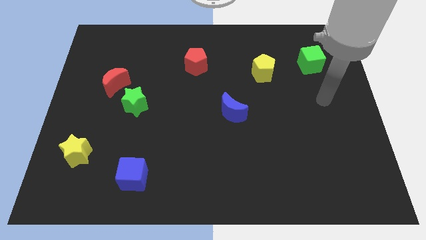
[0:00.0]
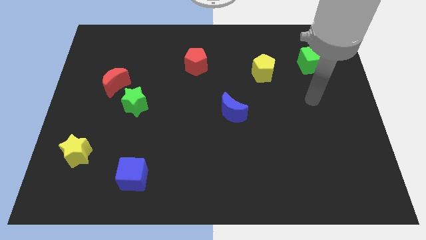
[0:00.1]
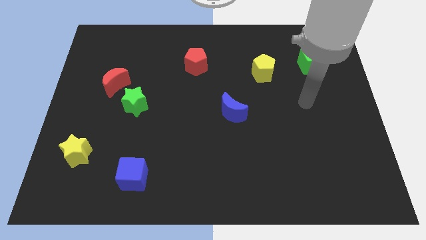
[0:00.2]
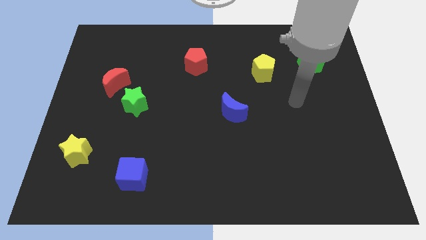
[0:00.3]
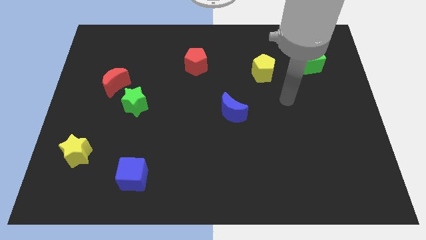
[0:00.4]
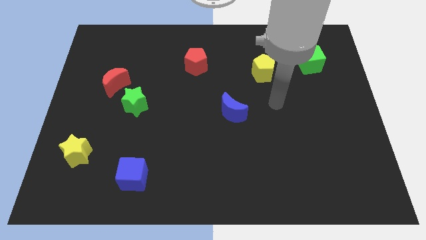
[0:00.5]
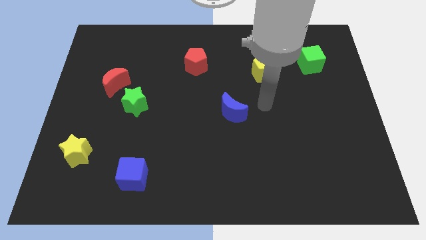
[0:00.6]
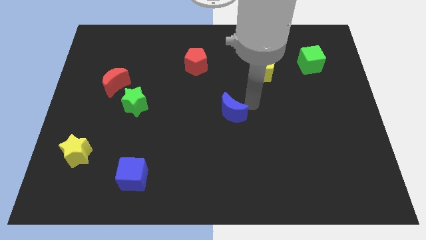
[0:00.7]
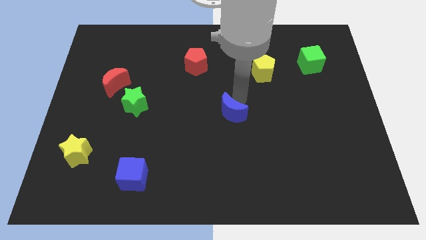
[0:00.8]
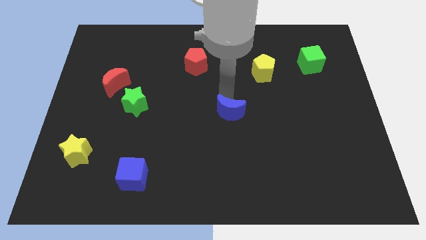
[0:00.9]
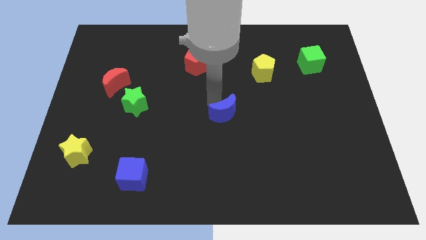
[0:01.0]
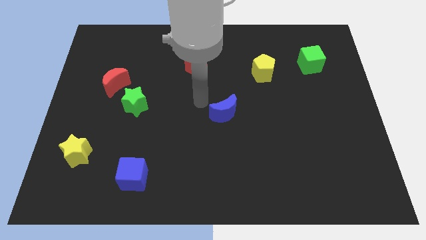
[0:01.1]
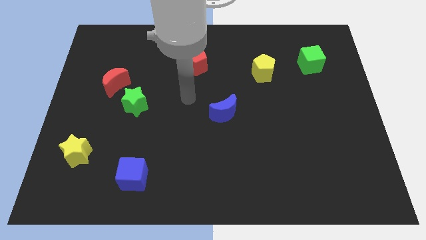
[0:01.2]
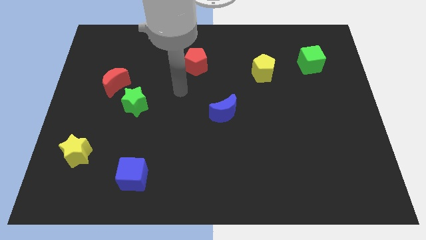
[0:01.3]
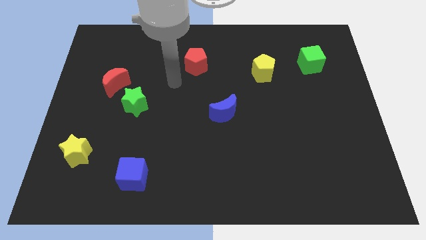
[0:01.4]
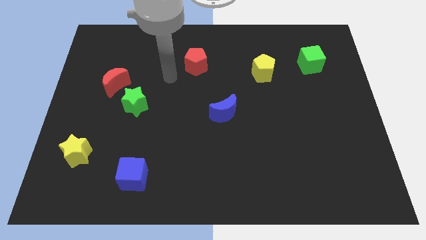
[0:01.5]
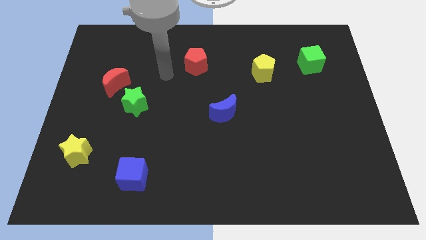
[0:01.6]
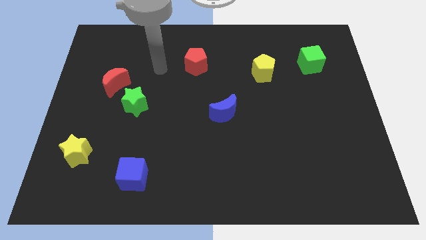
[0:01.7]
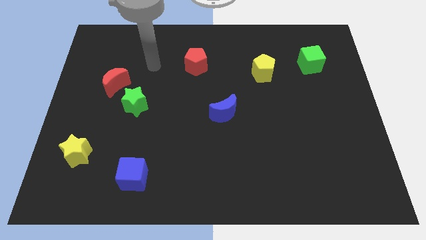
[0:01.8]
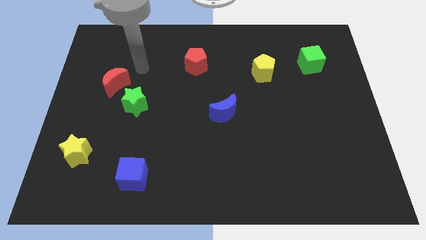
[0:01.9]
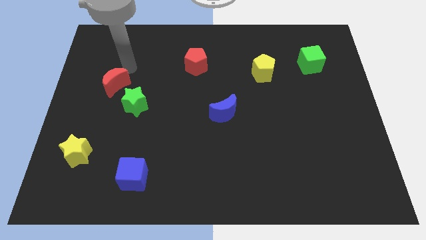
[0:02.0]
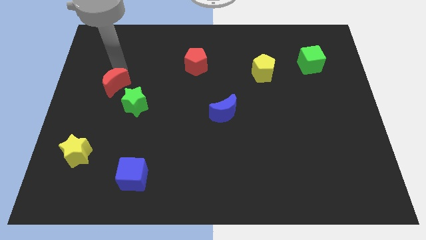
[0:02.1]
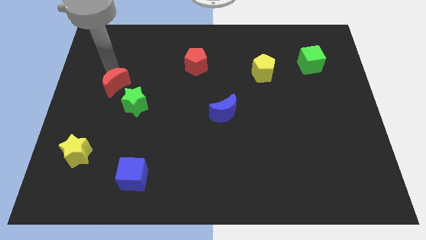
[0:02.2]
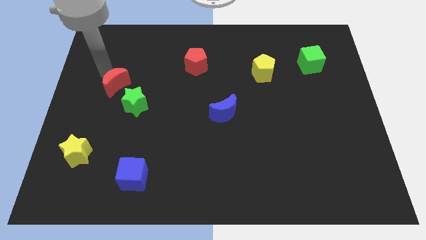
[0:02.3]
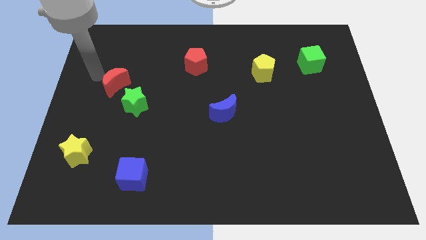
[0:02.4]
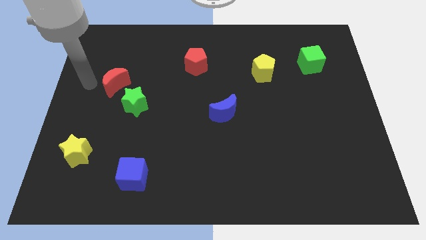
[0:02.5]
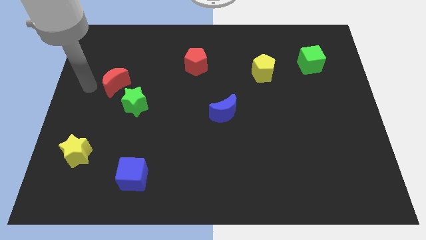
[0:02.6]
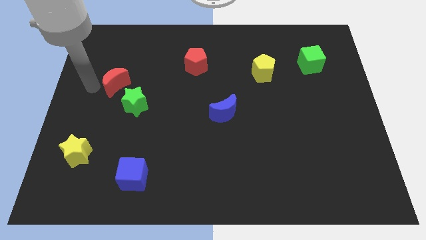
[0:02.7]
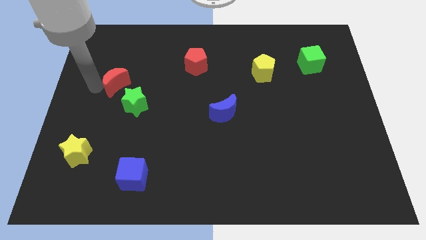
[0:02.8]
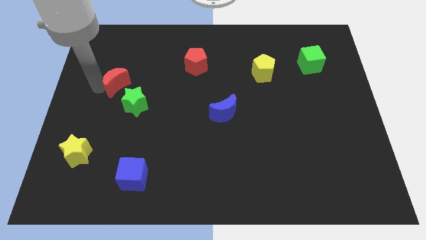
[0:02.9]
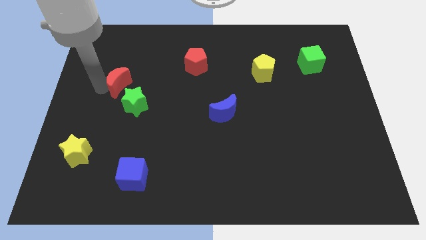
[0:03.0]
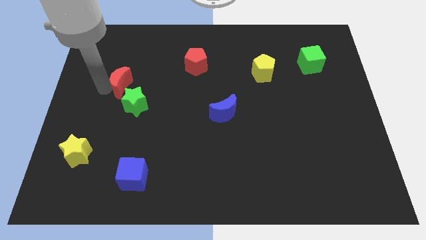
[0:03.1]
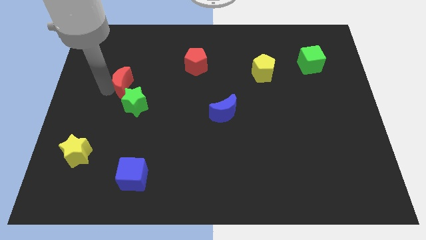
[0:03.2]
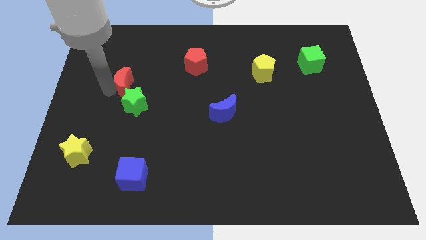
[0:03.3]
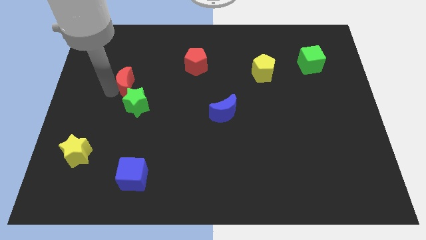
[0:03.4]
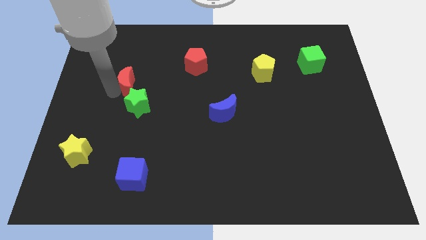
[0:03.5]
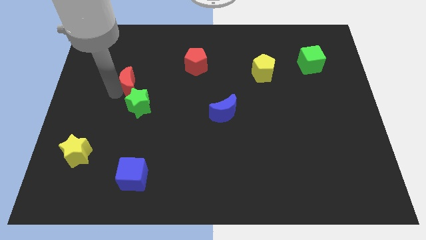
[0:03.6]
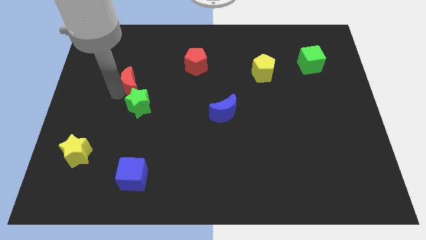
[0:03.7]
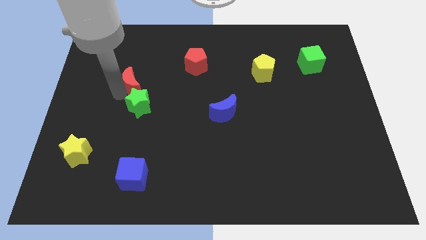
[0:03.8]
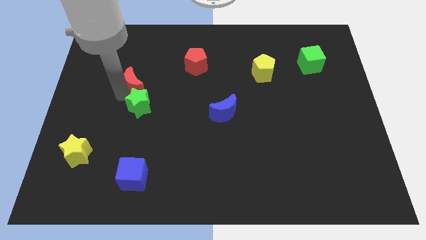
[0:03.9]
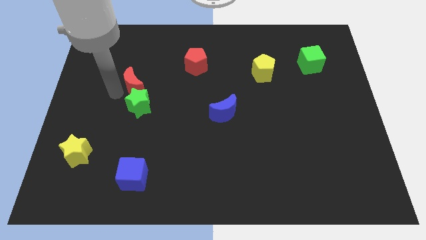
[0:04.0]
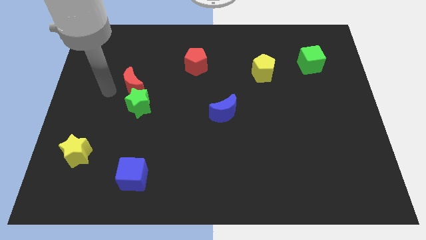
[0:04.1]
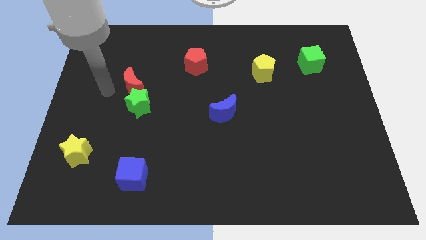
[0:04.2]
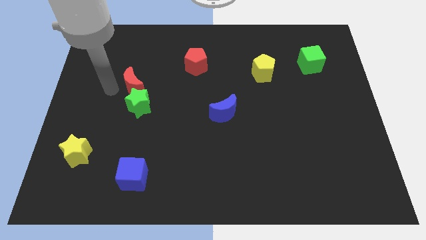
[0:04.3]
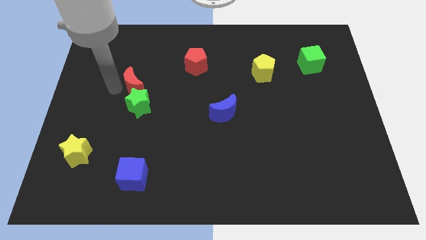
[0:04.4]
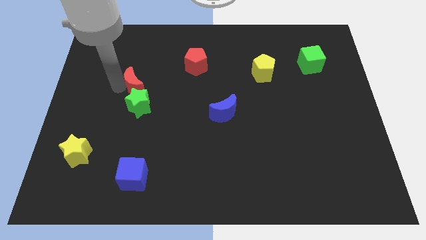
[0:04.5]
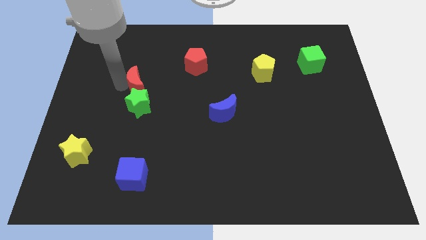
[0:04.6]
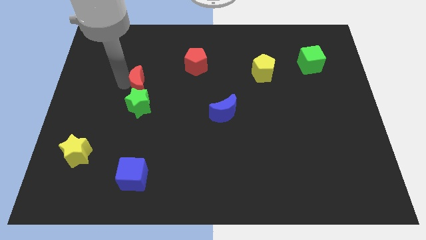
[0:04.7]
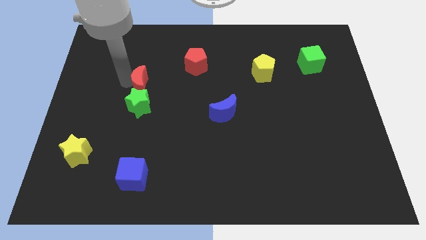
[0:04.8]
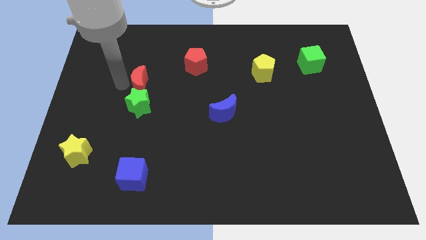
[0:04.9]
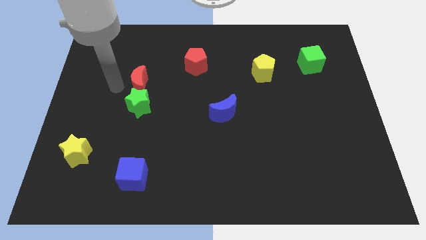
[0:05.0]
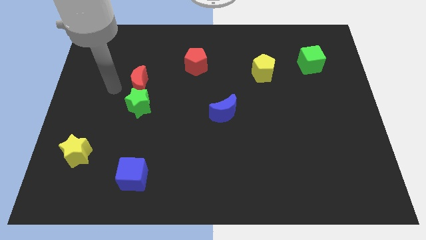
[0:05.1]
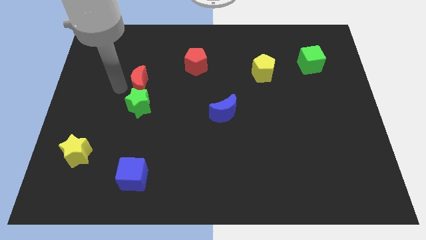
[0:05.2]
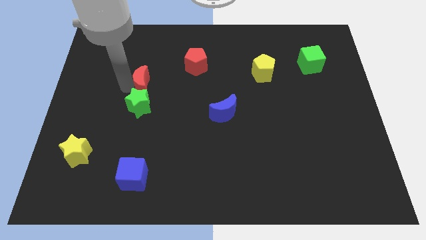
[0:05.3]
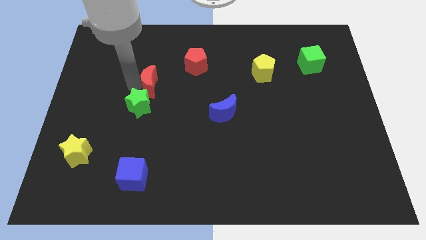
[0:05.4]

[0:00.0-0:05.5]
slide the red moon a little bit right

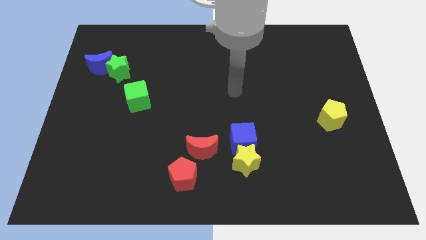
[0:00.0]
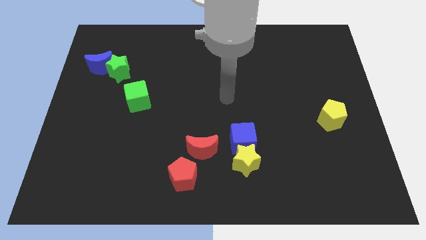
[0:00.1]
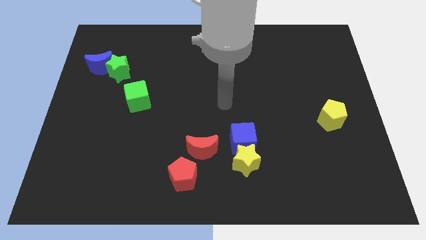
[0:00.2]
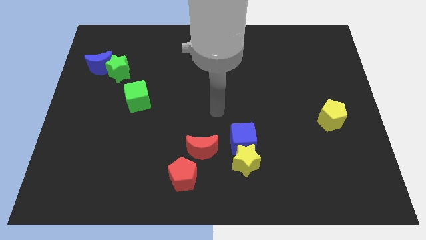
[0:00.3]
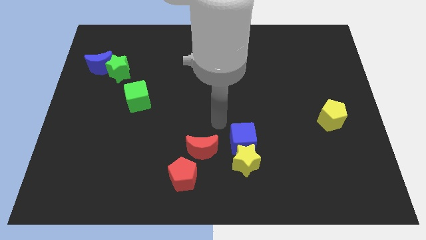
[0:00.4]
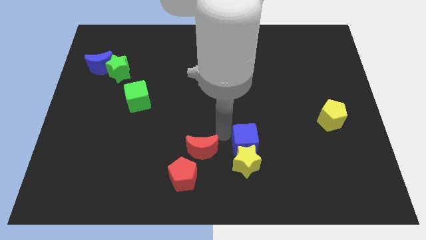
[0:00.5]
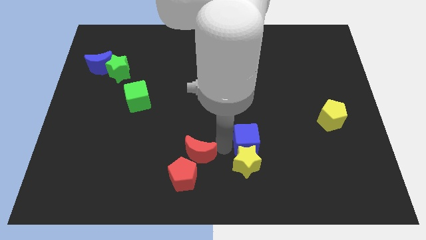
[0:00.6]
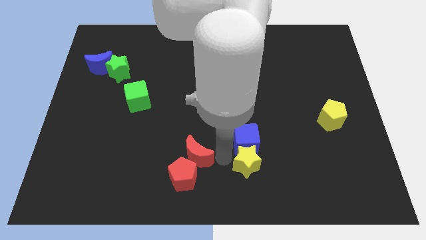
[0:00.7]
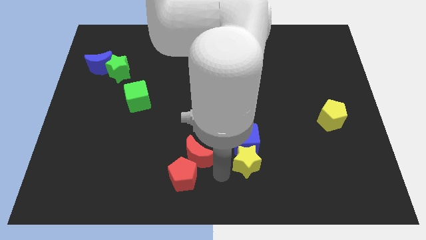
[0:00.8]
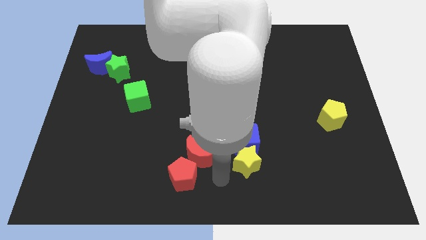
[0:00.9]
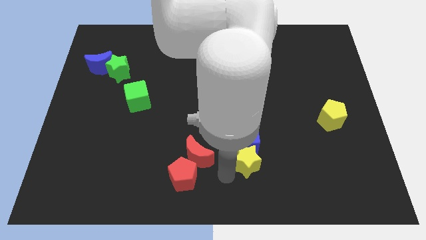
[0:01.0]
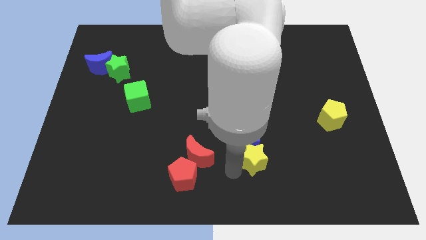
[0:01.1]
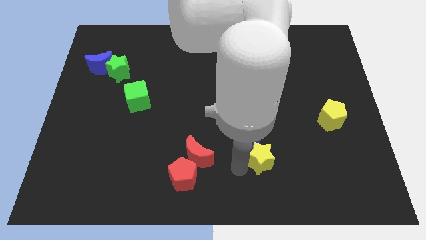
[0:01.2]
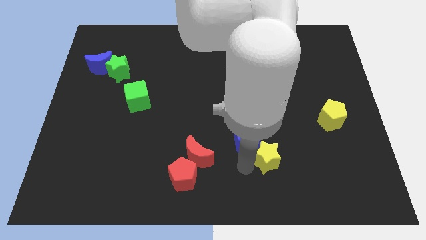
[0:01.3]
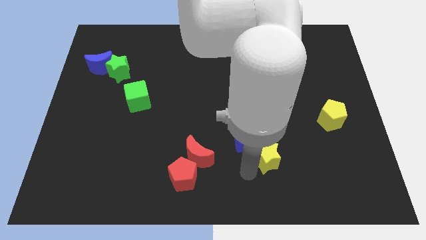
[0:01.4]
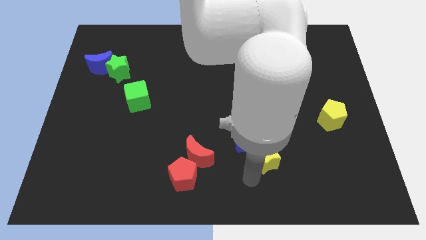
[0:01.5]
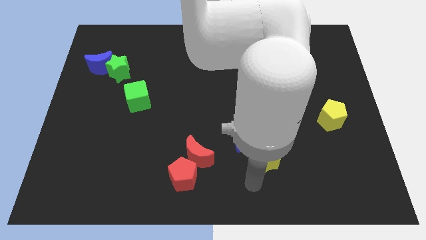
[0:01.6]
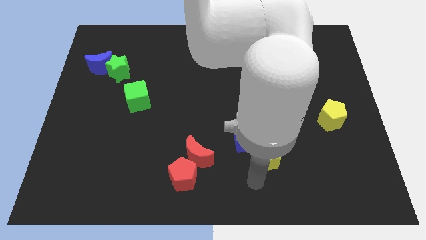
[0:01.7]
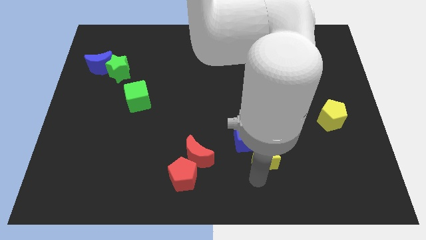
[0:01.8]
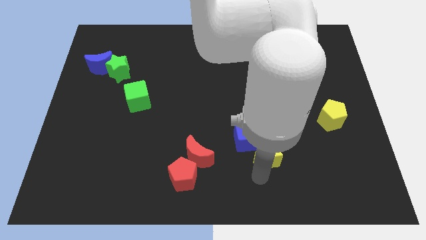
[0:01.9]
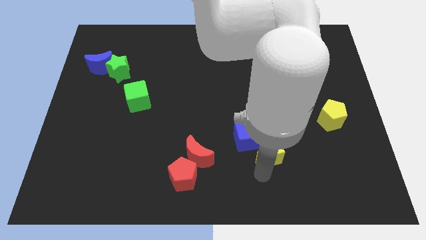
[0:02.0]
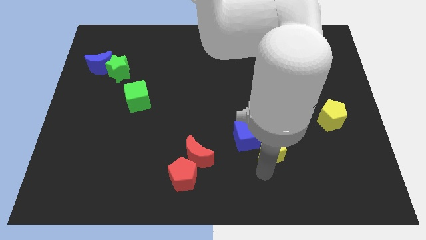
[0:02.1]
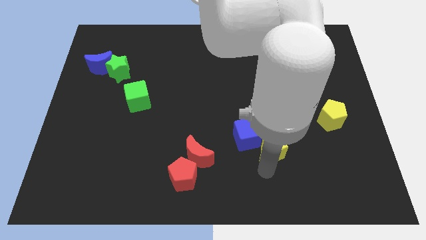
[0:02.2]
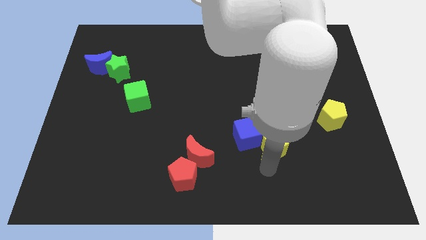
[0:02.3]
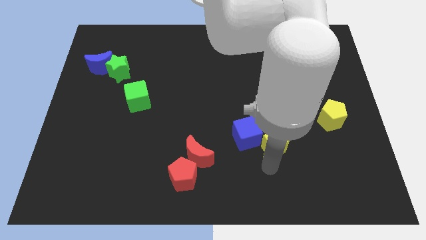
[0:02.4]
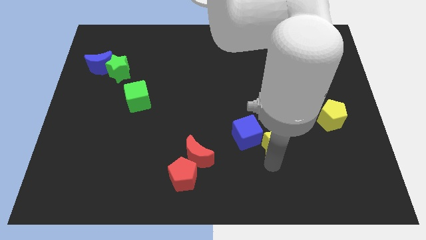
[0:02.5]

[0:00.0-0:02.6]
slide the yellow star somewhat upwards and right diagonally
